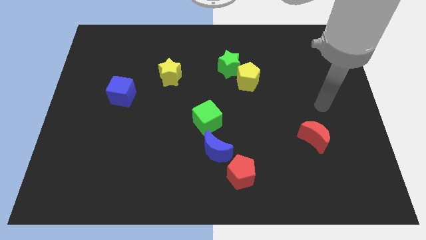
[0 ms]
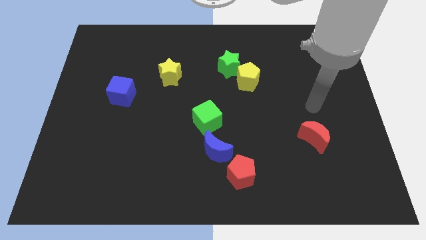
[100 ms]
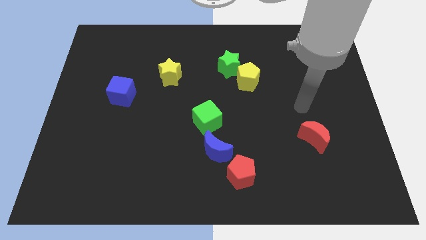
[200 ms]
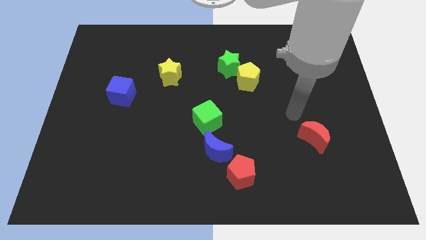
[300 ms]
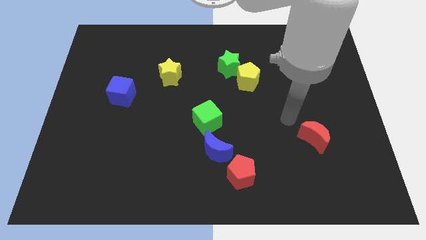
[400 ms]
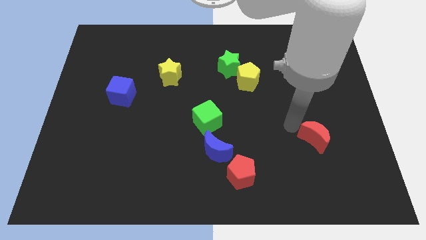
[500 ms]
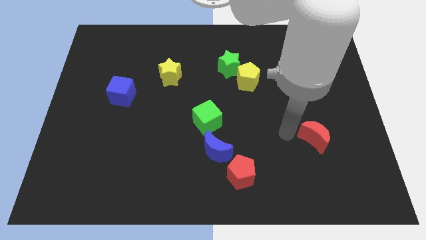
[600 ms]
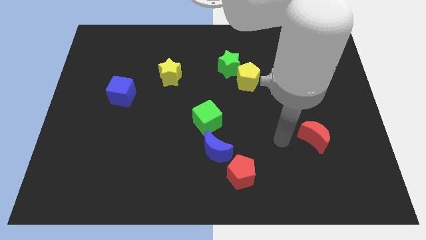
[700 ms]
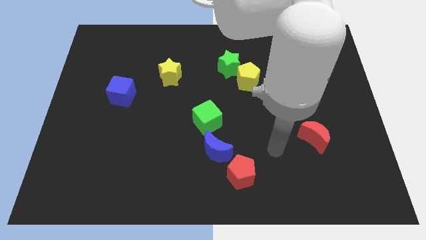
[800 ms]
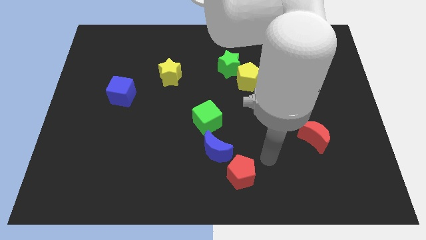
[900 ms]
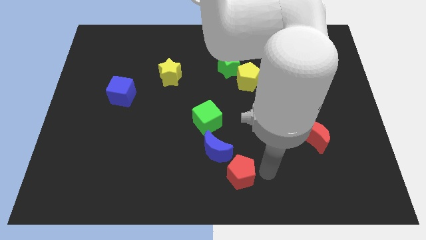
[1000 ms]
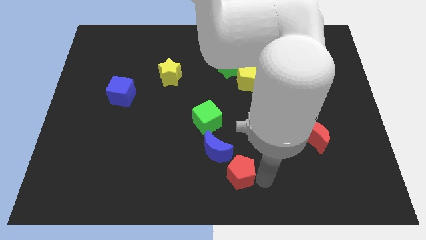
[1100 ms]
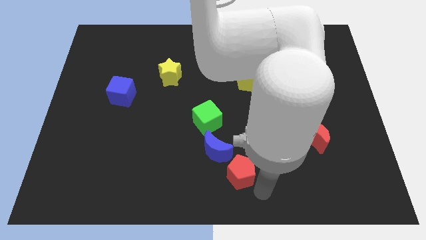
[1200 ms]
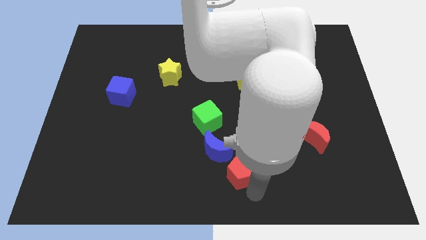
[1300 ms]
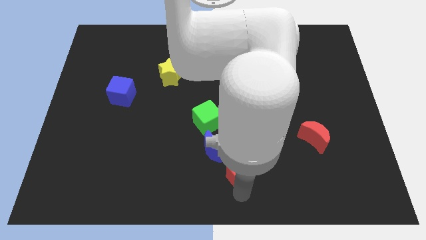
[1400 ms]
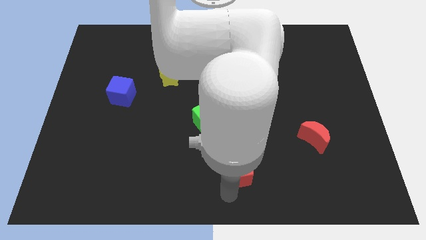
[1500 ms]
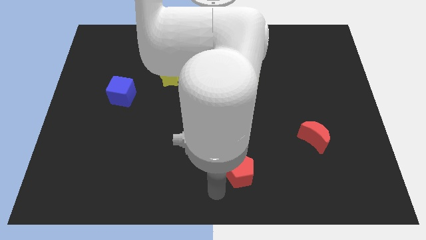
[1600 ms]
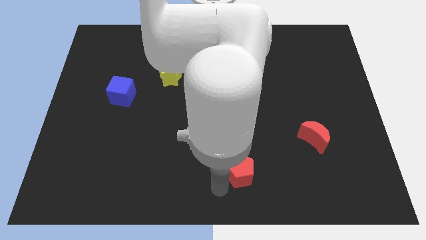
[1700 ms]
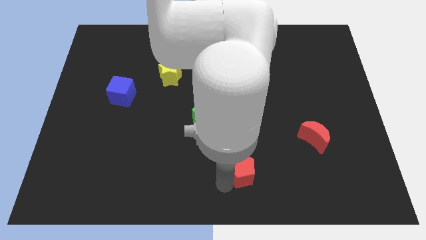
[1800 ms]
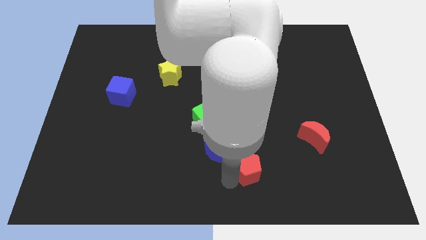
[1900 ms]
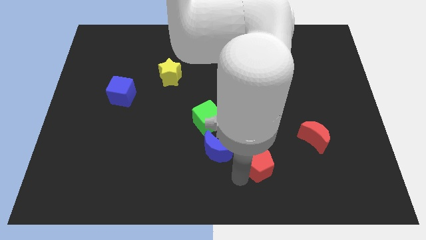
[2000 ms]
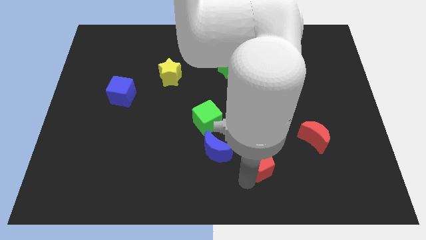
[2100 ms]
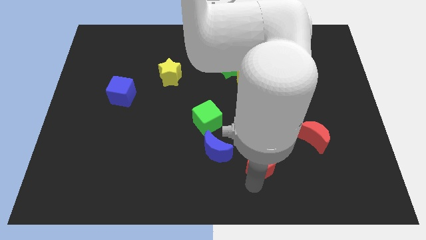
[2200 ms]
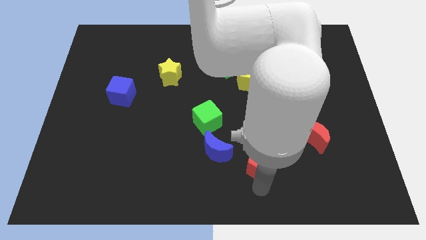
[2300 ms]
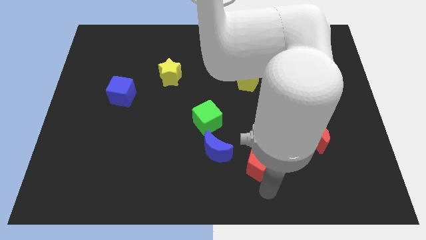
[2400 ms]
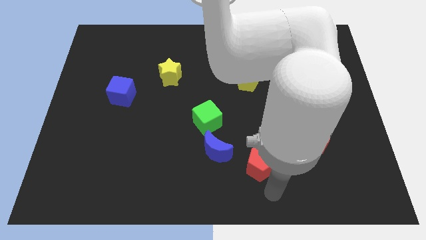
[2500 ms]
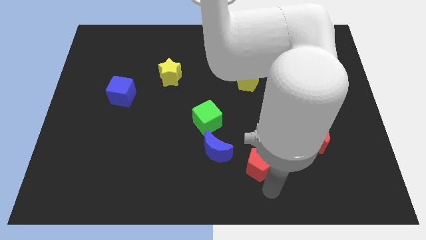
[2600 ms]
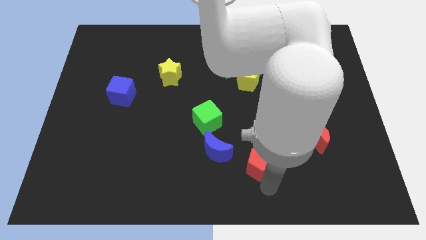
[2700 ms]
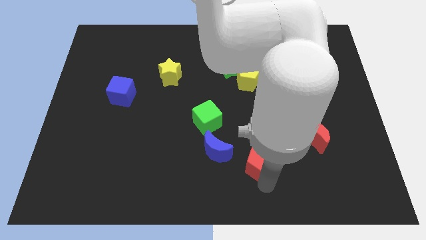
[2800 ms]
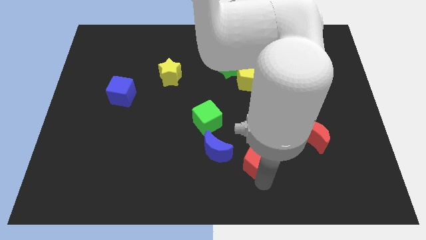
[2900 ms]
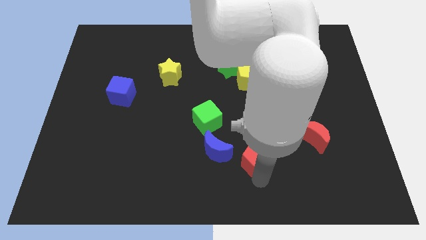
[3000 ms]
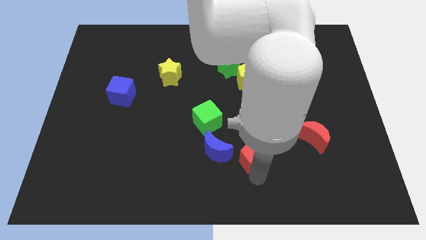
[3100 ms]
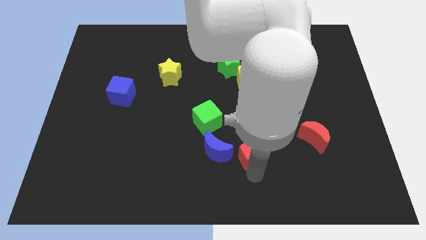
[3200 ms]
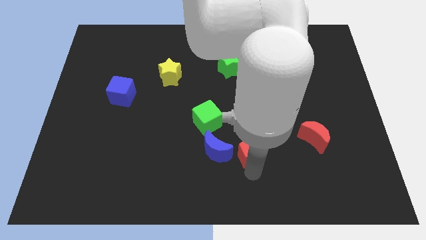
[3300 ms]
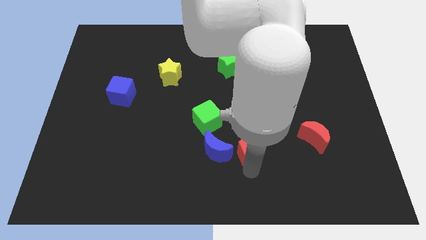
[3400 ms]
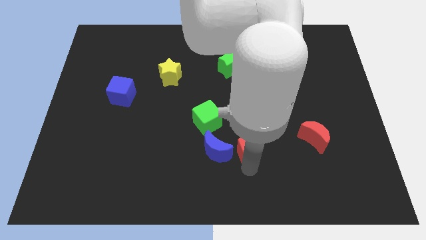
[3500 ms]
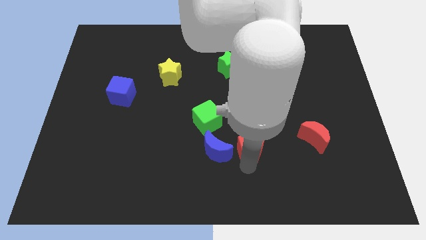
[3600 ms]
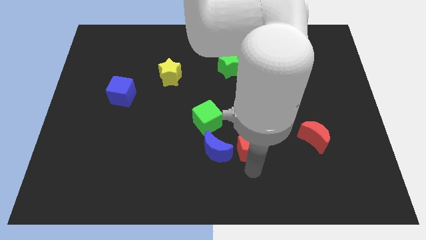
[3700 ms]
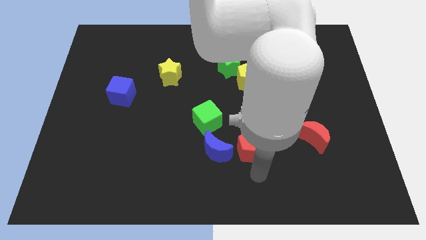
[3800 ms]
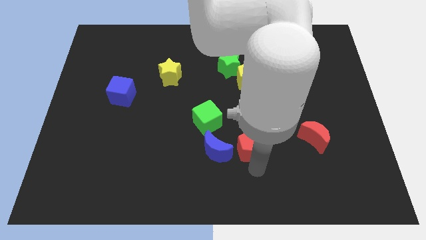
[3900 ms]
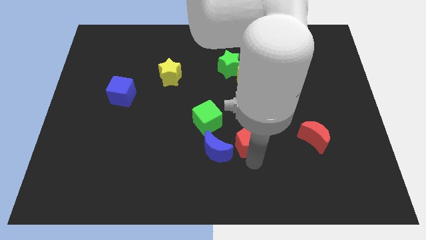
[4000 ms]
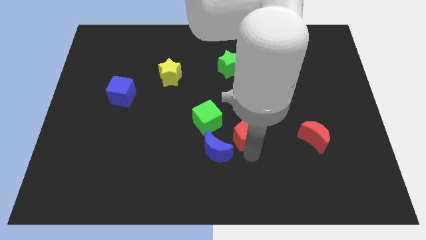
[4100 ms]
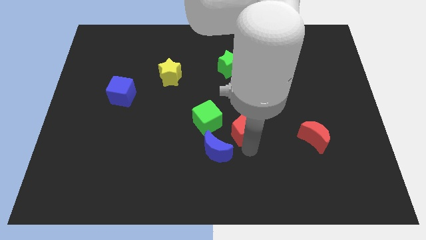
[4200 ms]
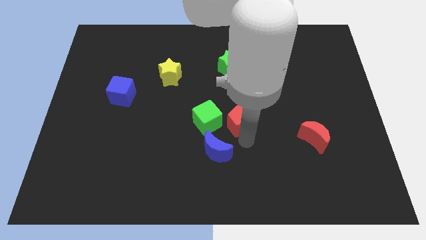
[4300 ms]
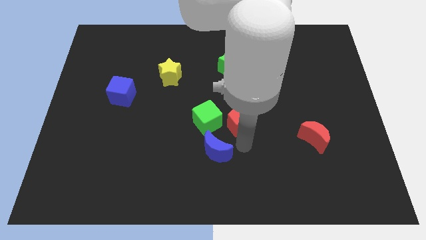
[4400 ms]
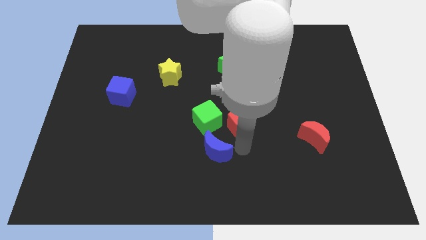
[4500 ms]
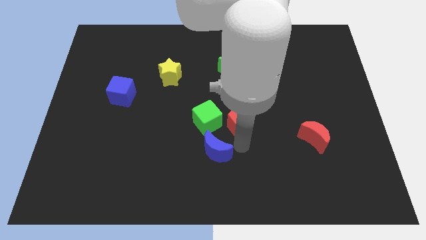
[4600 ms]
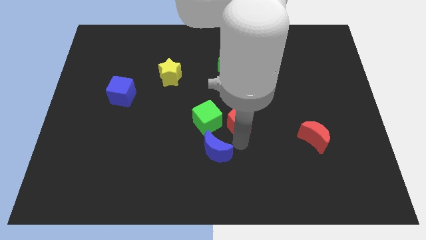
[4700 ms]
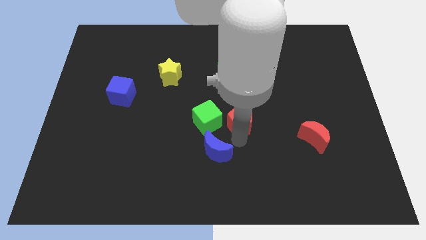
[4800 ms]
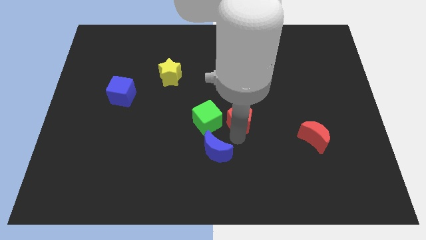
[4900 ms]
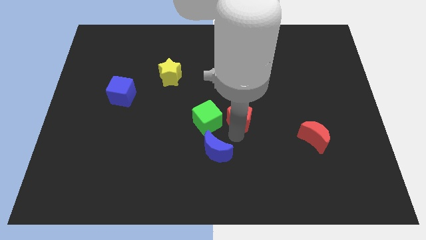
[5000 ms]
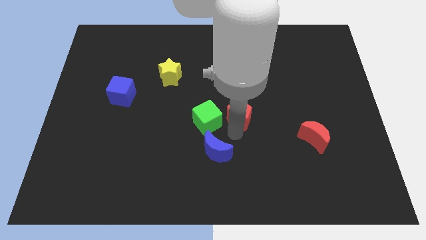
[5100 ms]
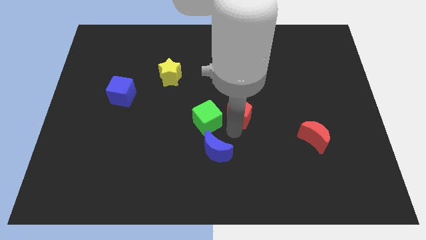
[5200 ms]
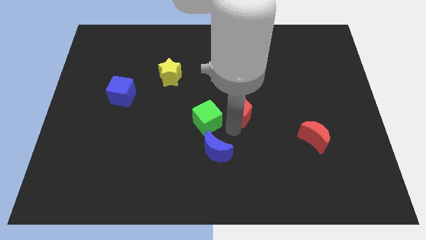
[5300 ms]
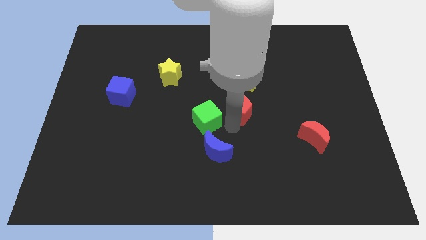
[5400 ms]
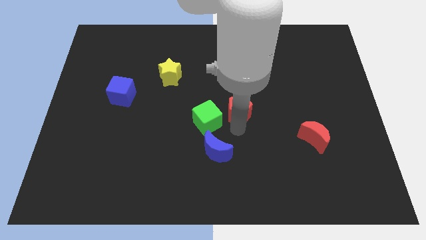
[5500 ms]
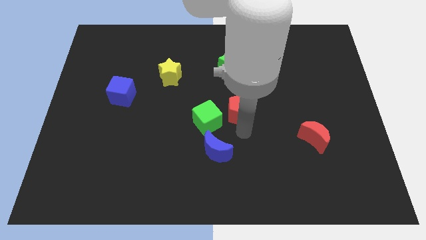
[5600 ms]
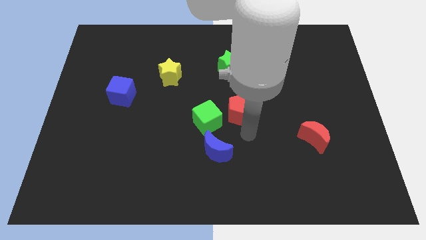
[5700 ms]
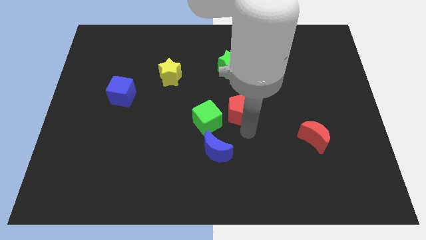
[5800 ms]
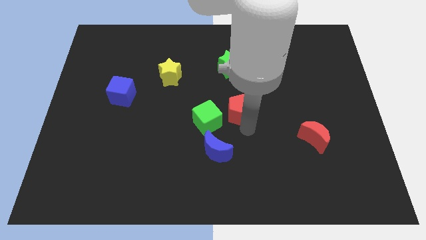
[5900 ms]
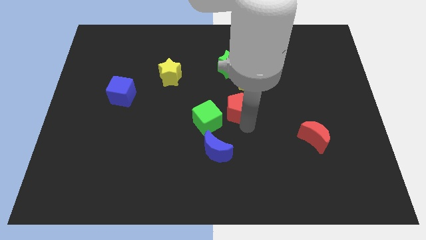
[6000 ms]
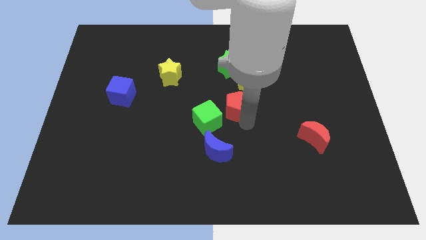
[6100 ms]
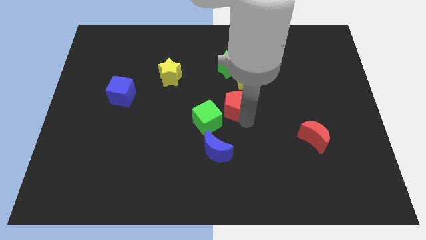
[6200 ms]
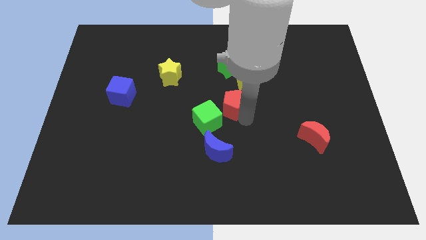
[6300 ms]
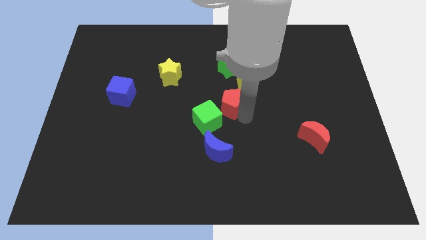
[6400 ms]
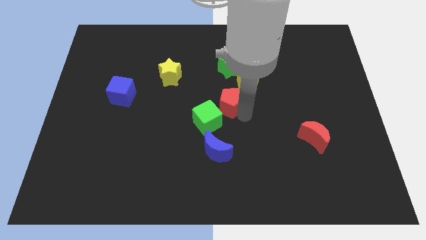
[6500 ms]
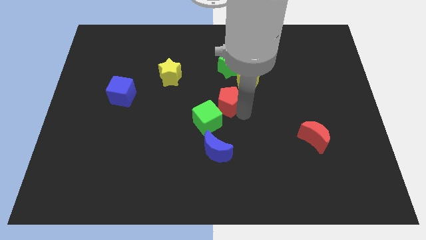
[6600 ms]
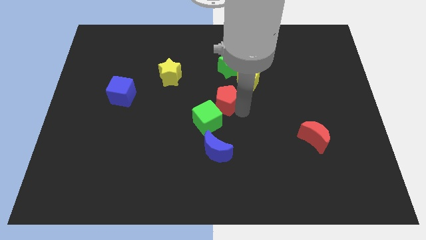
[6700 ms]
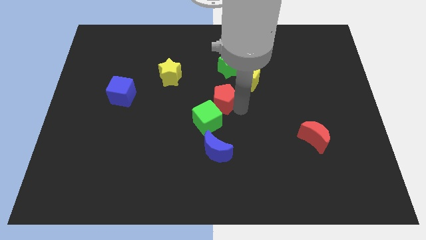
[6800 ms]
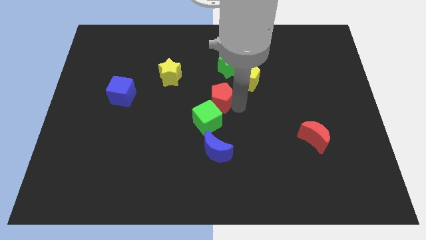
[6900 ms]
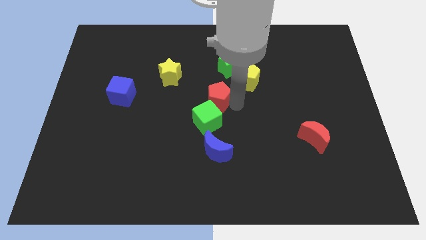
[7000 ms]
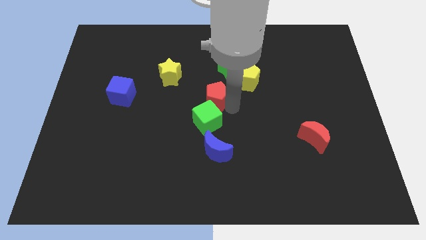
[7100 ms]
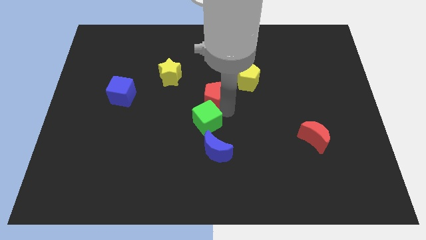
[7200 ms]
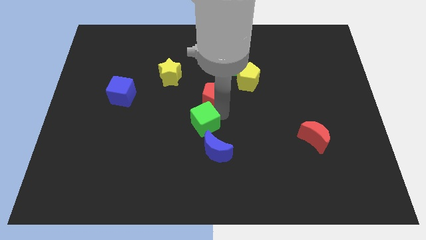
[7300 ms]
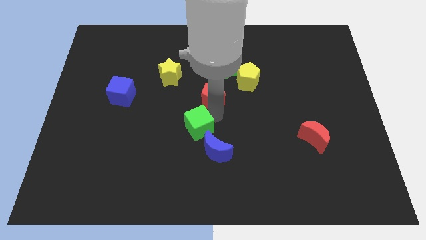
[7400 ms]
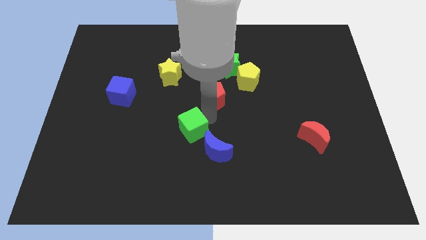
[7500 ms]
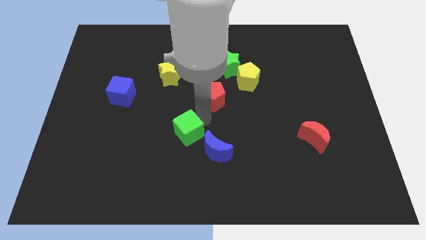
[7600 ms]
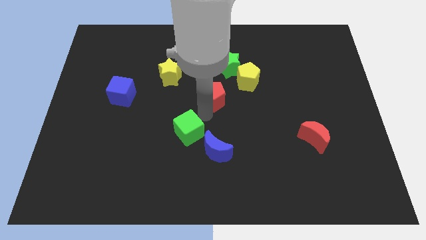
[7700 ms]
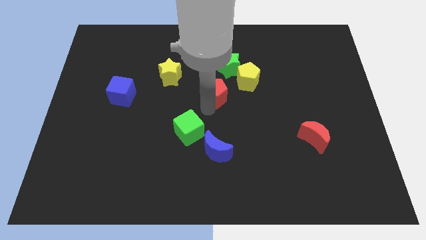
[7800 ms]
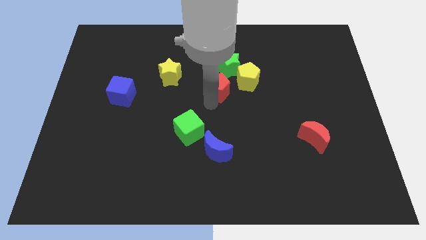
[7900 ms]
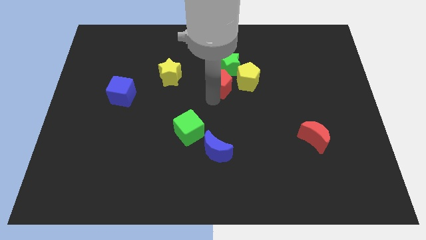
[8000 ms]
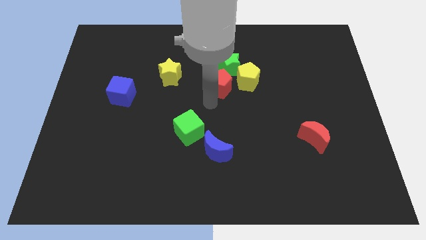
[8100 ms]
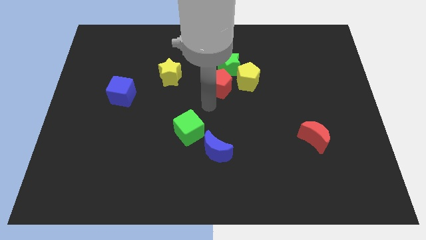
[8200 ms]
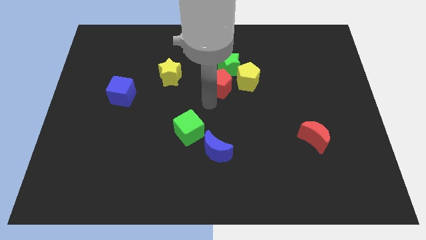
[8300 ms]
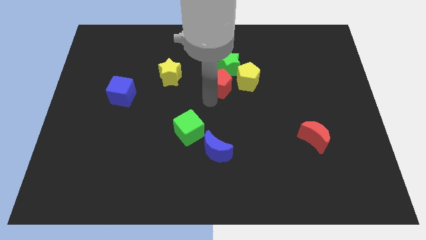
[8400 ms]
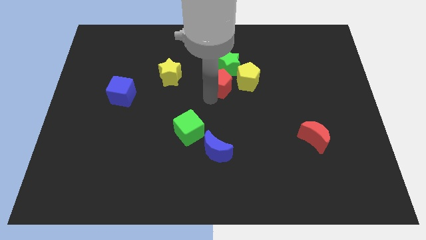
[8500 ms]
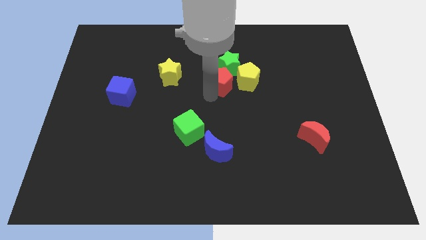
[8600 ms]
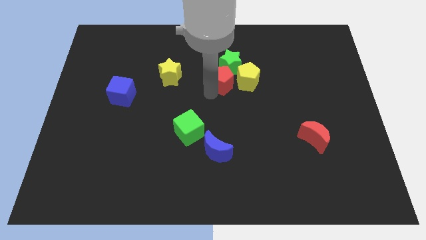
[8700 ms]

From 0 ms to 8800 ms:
push the red pentagon close to the green star
